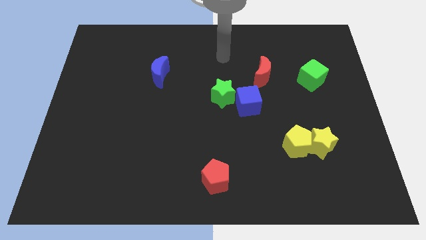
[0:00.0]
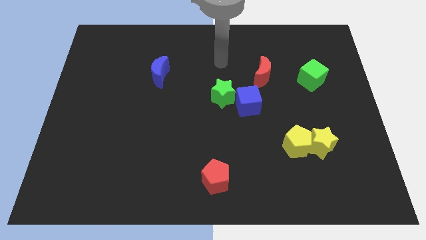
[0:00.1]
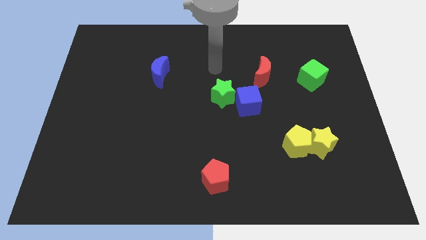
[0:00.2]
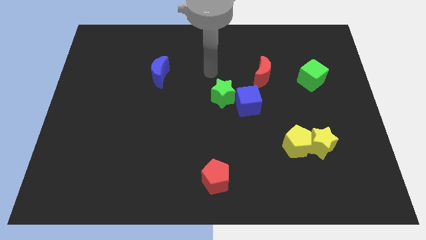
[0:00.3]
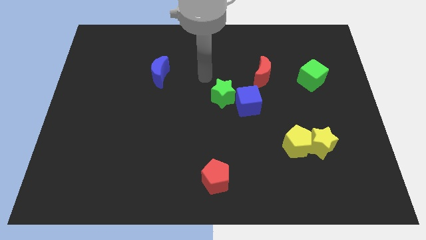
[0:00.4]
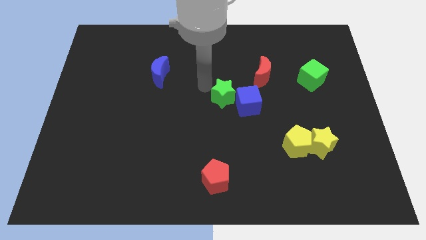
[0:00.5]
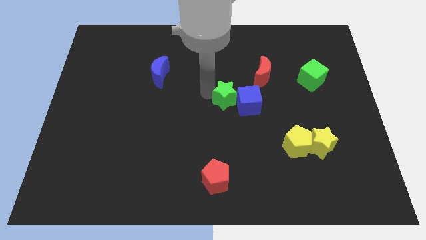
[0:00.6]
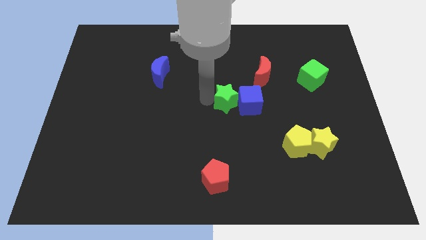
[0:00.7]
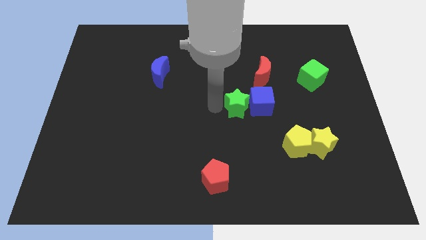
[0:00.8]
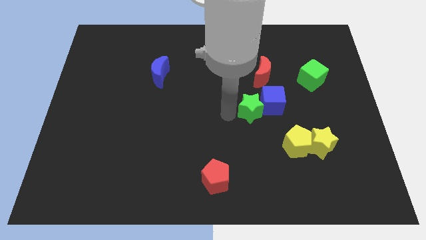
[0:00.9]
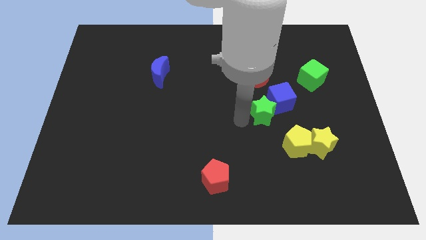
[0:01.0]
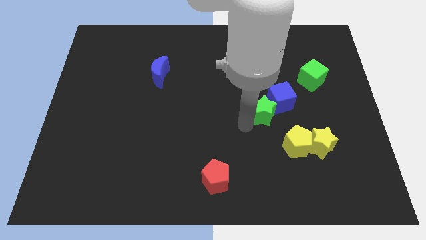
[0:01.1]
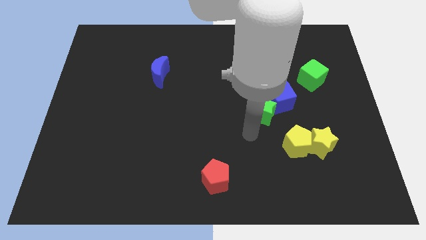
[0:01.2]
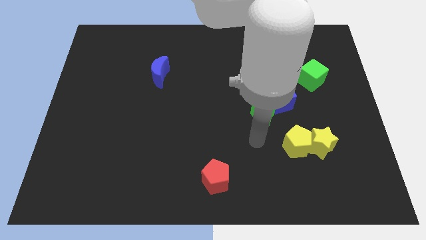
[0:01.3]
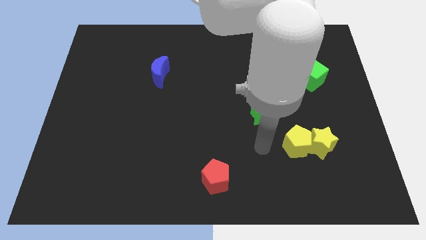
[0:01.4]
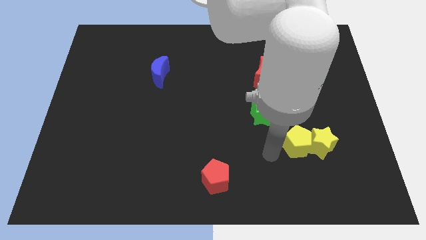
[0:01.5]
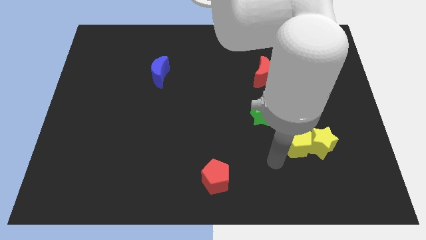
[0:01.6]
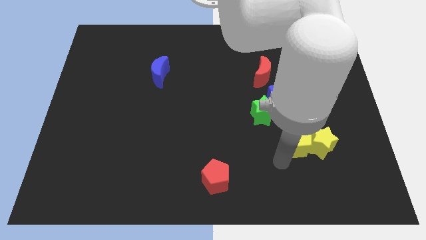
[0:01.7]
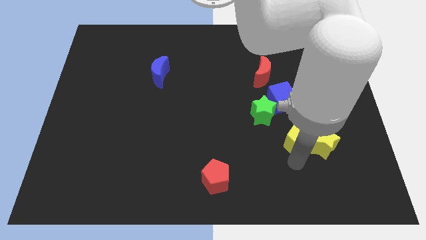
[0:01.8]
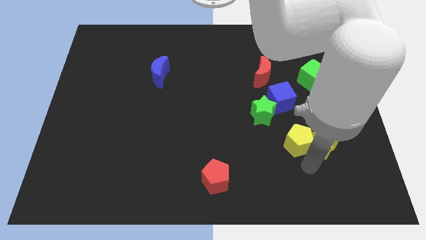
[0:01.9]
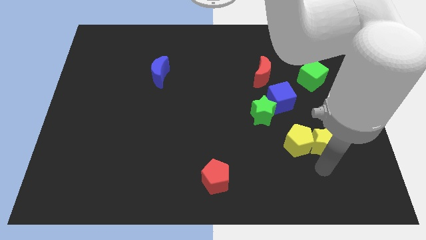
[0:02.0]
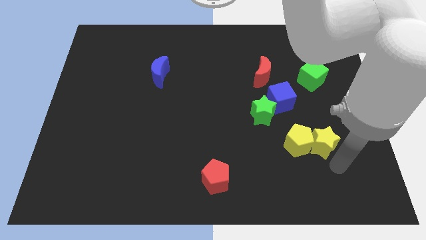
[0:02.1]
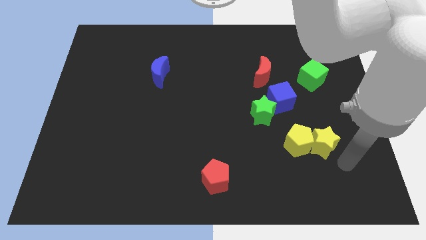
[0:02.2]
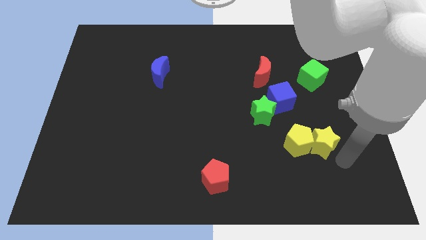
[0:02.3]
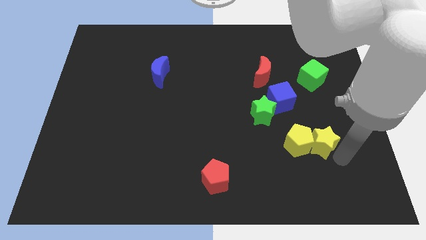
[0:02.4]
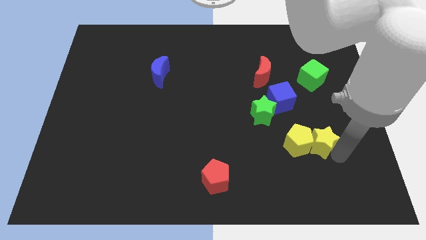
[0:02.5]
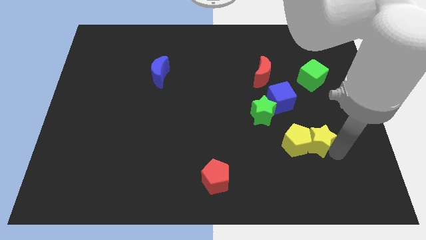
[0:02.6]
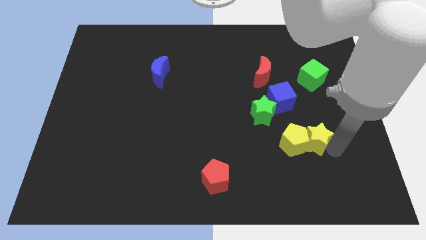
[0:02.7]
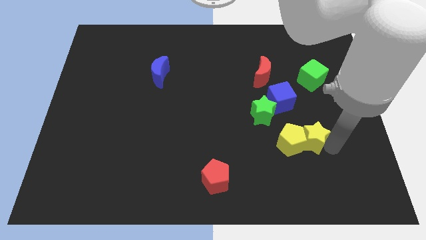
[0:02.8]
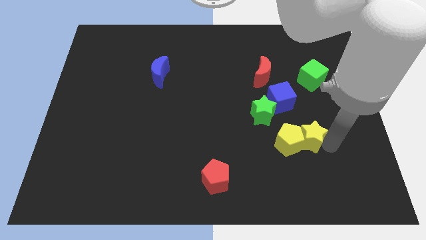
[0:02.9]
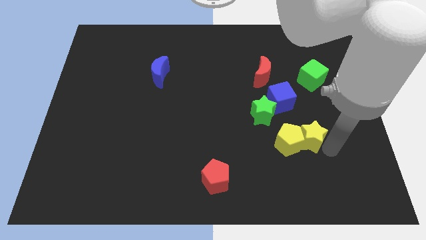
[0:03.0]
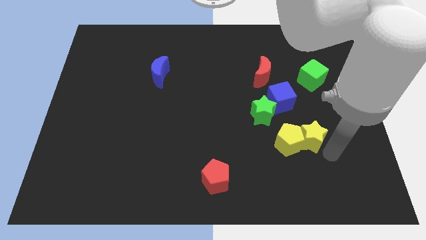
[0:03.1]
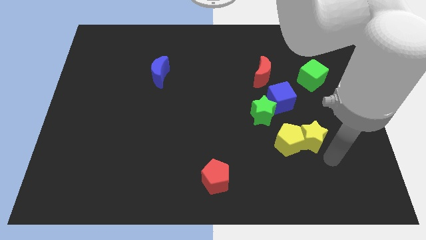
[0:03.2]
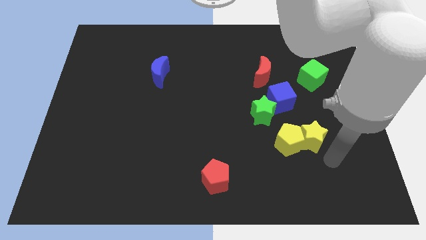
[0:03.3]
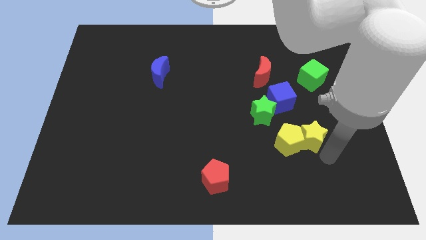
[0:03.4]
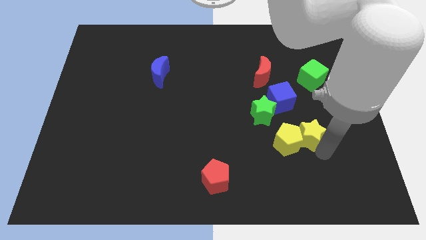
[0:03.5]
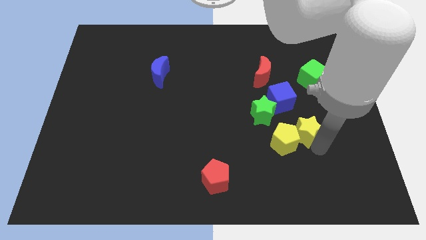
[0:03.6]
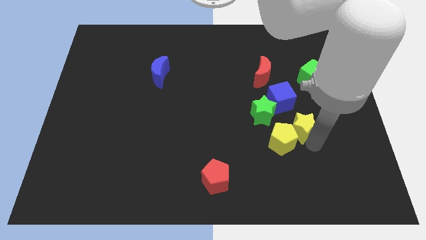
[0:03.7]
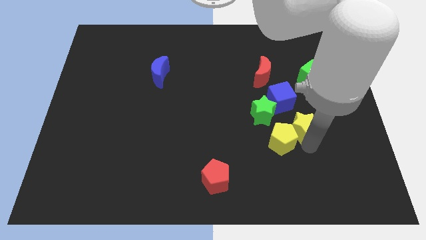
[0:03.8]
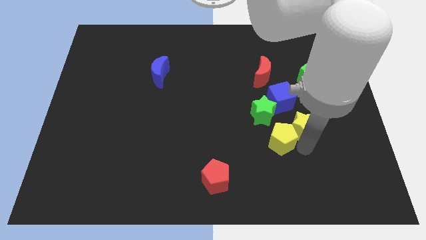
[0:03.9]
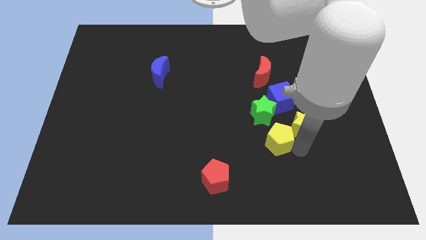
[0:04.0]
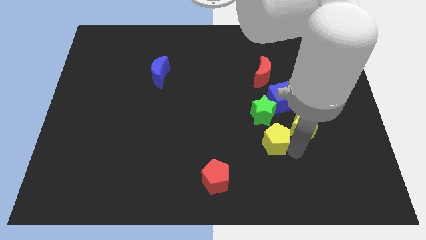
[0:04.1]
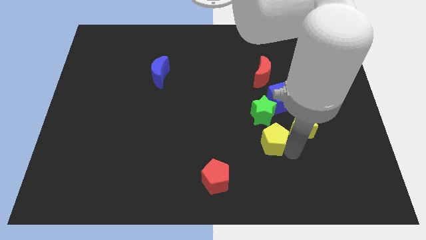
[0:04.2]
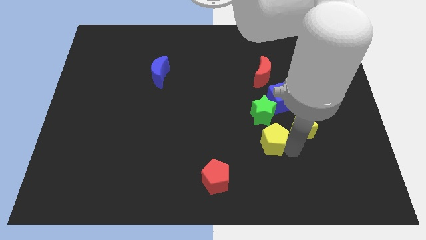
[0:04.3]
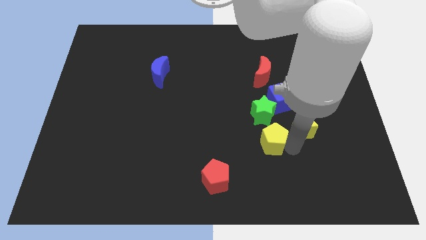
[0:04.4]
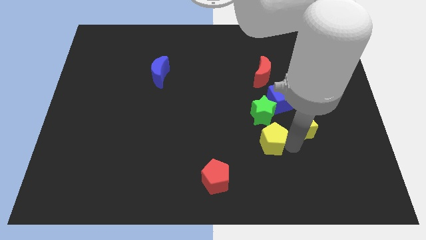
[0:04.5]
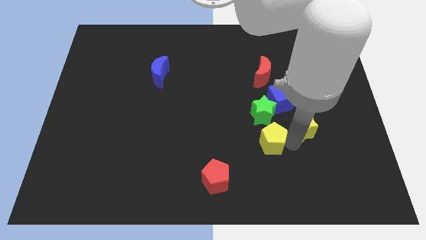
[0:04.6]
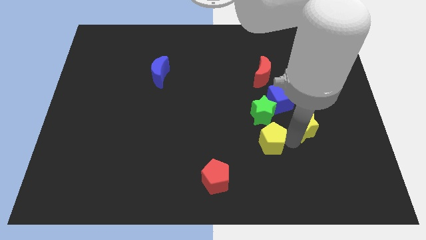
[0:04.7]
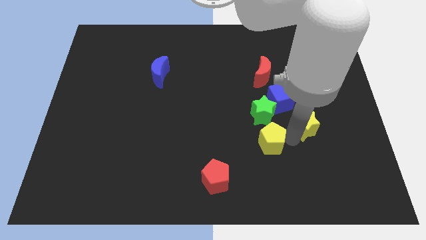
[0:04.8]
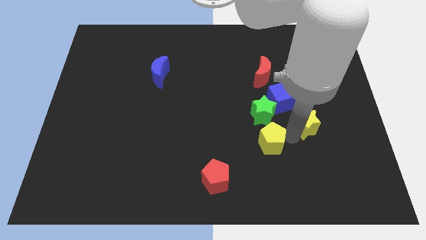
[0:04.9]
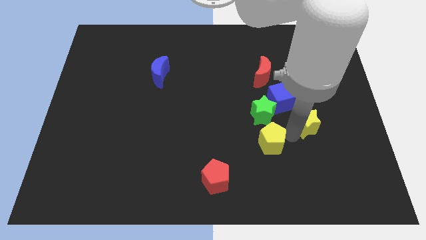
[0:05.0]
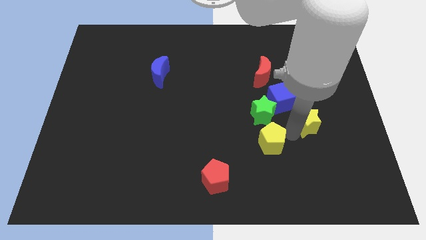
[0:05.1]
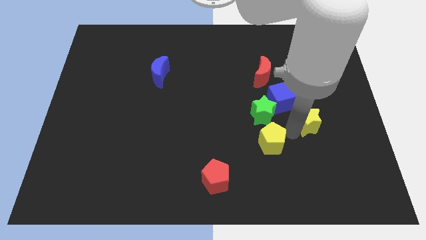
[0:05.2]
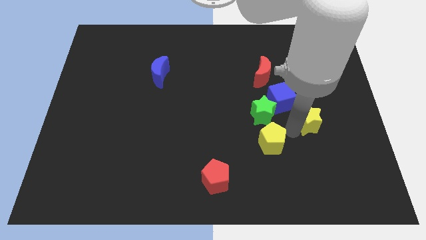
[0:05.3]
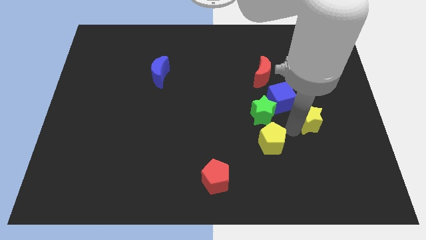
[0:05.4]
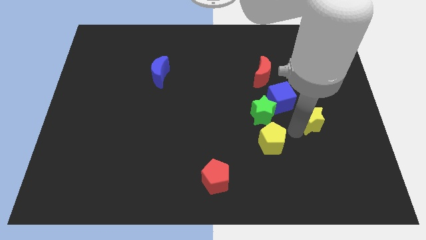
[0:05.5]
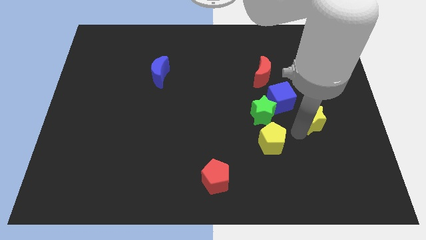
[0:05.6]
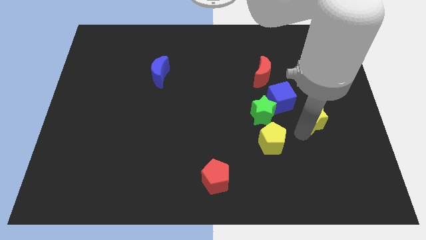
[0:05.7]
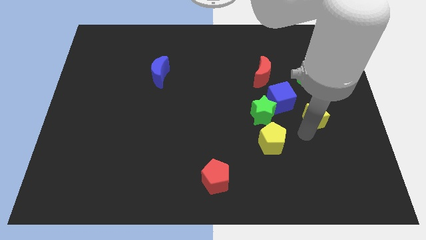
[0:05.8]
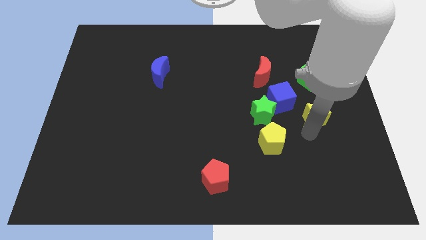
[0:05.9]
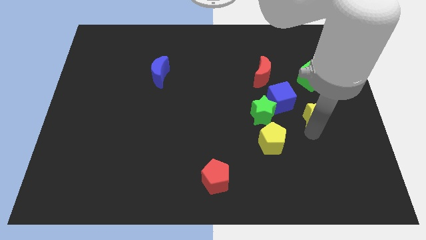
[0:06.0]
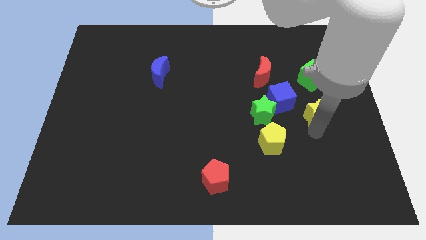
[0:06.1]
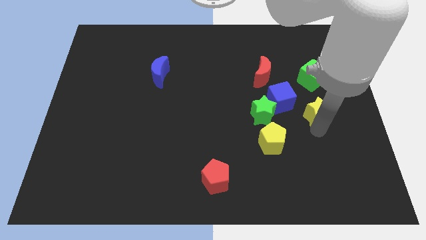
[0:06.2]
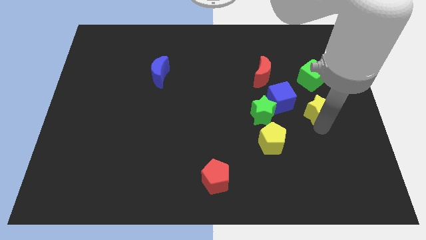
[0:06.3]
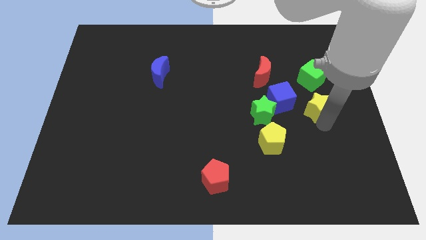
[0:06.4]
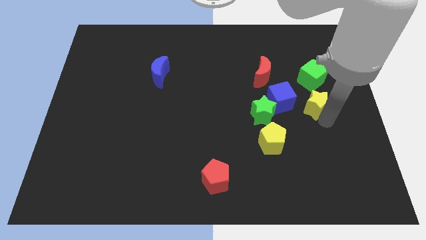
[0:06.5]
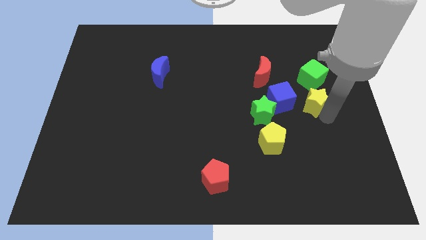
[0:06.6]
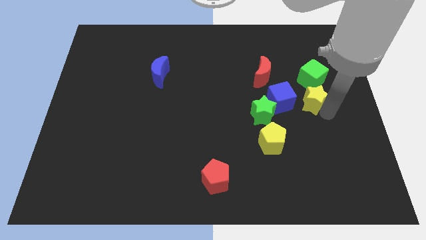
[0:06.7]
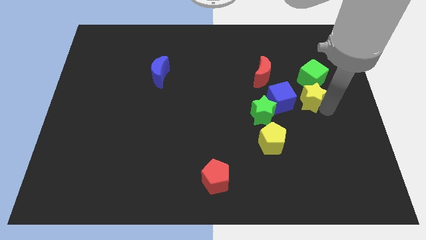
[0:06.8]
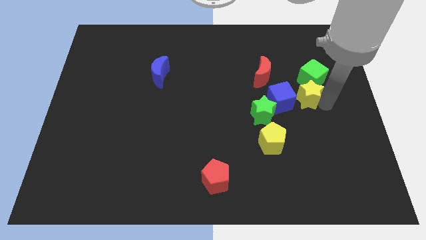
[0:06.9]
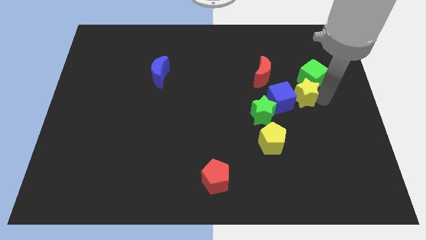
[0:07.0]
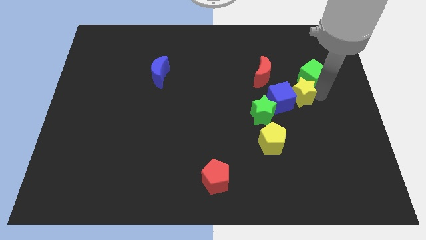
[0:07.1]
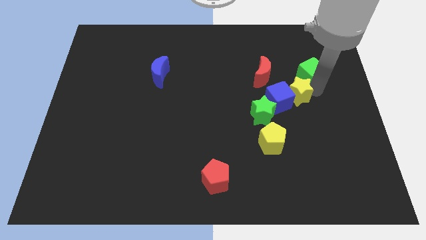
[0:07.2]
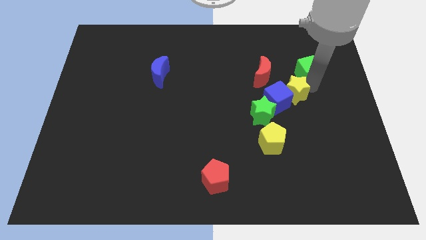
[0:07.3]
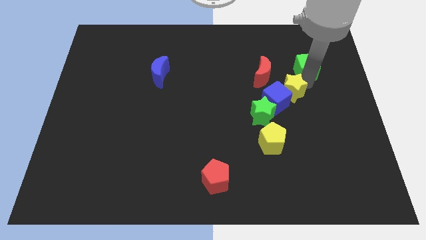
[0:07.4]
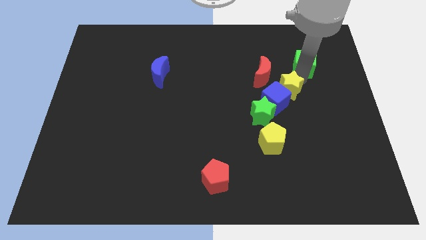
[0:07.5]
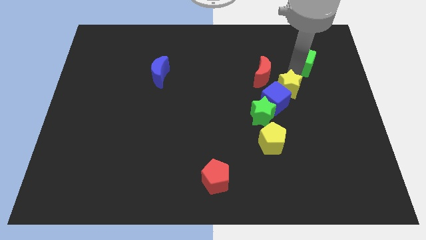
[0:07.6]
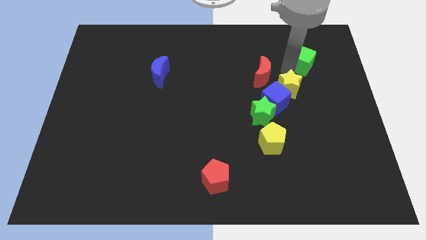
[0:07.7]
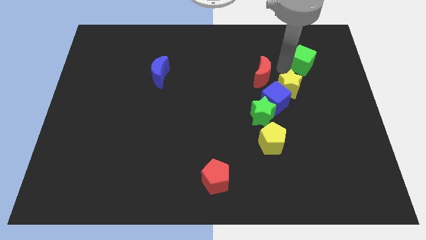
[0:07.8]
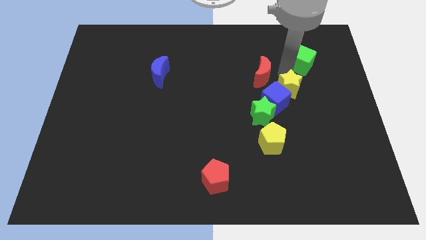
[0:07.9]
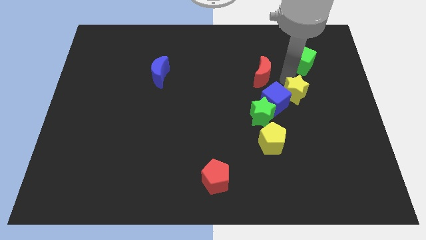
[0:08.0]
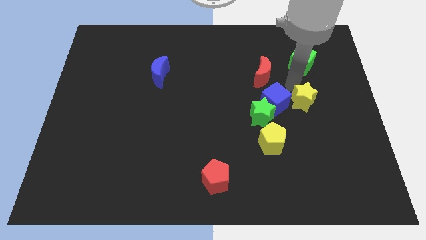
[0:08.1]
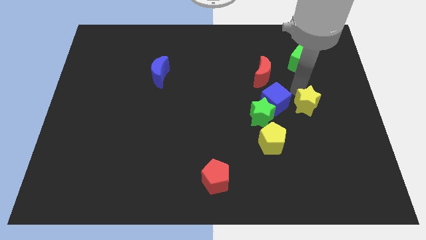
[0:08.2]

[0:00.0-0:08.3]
push the yellow star to the bottom right side of the blue cube
